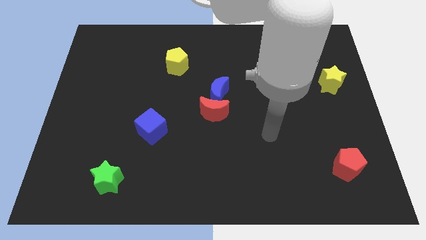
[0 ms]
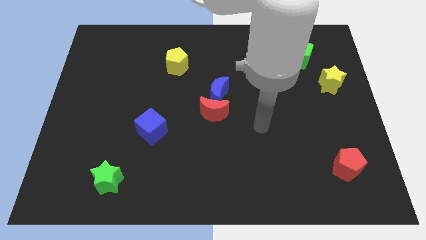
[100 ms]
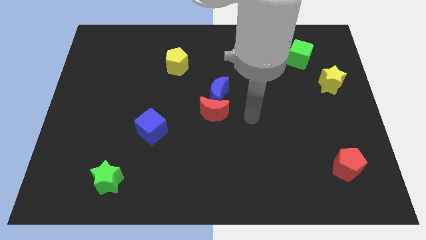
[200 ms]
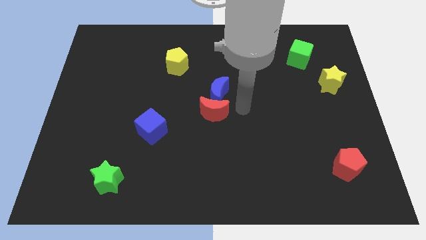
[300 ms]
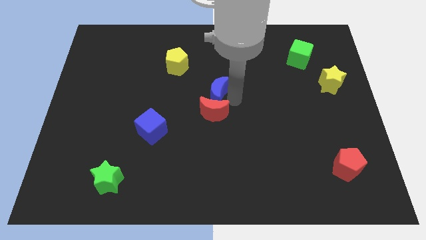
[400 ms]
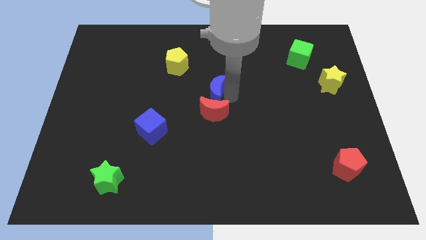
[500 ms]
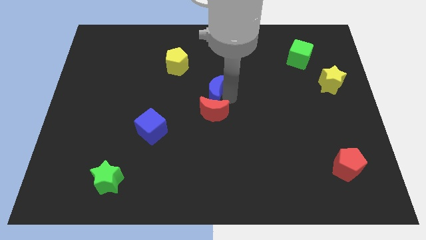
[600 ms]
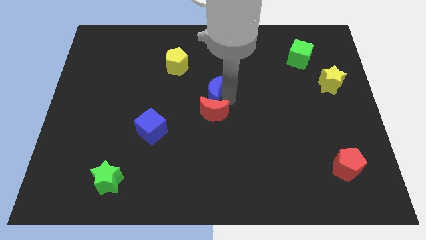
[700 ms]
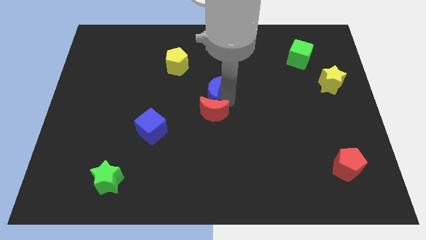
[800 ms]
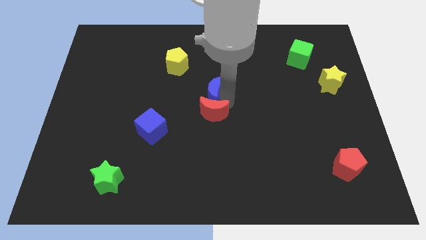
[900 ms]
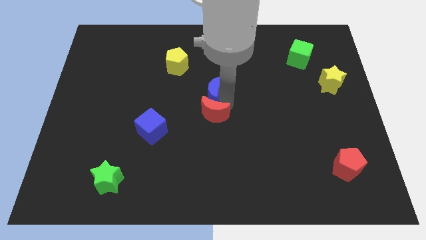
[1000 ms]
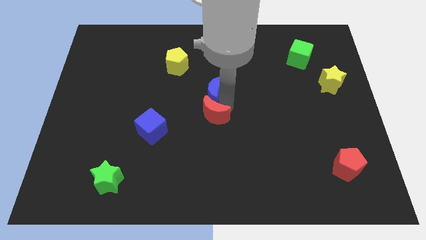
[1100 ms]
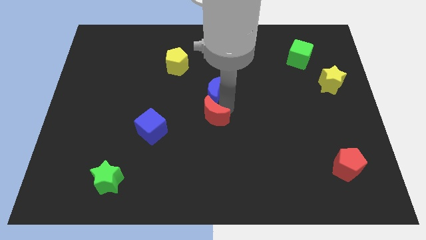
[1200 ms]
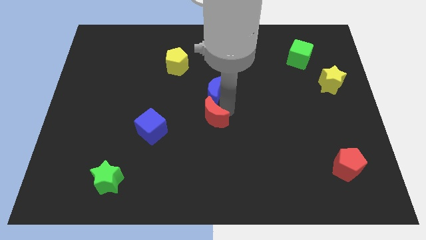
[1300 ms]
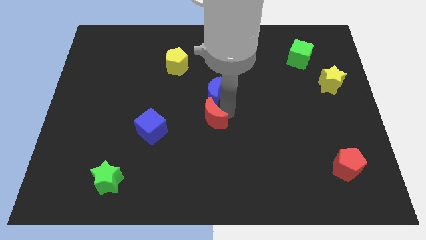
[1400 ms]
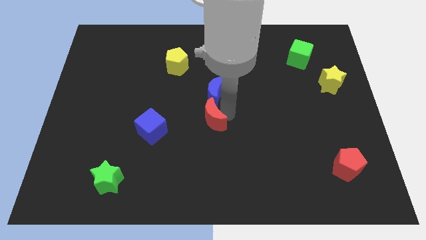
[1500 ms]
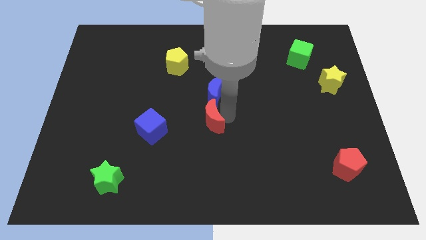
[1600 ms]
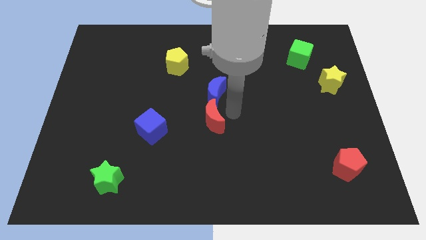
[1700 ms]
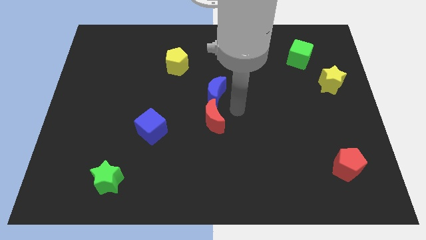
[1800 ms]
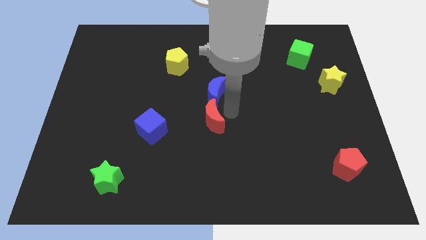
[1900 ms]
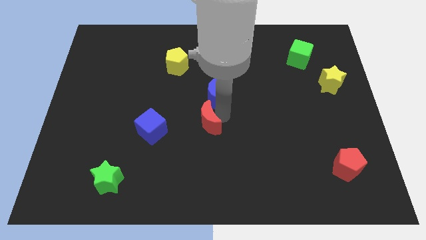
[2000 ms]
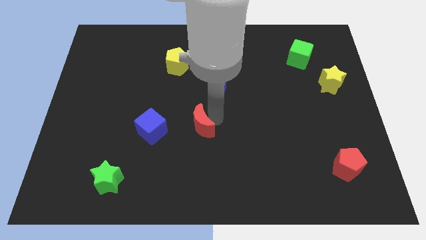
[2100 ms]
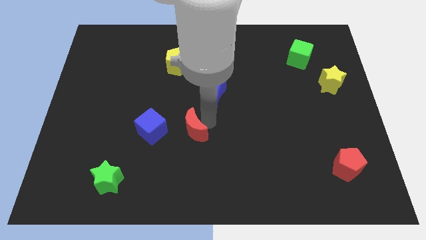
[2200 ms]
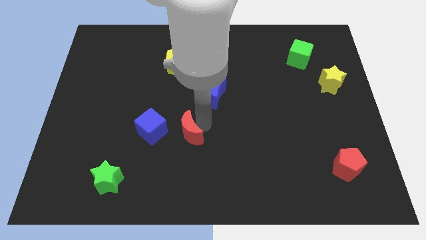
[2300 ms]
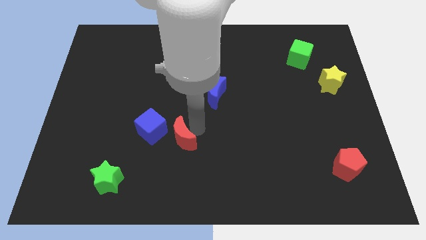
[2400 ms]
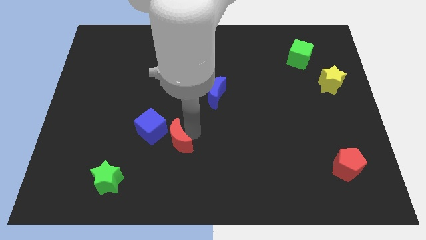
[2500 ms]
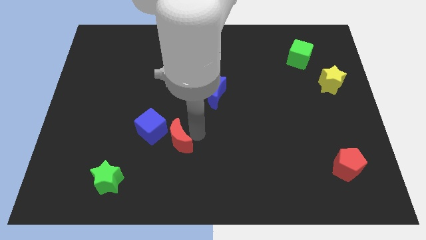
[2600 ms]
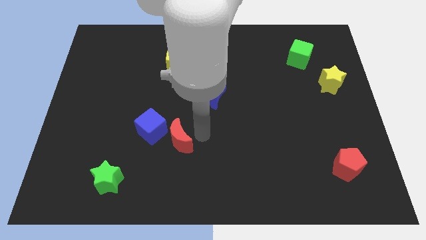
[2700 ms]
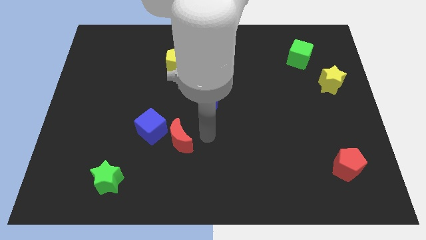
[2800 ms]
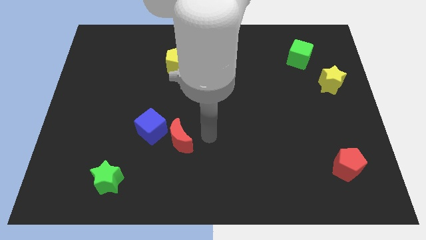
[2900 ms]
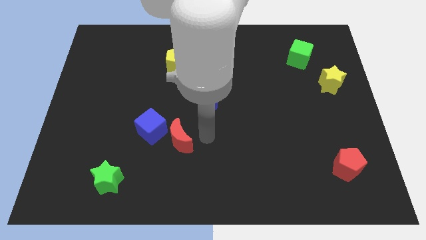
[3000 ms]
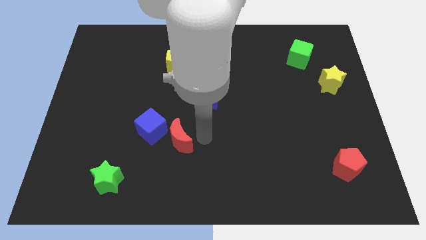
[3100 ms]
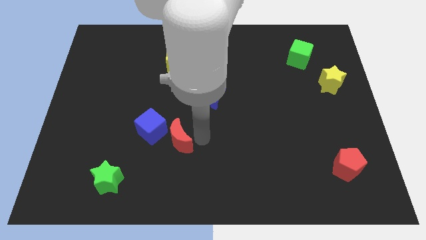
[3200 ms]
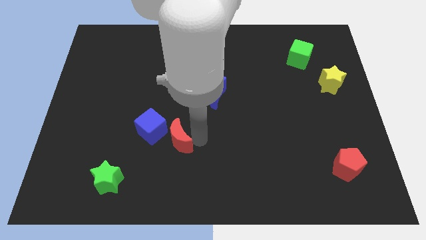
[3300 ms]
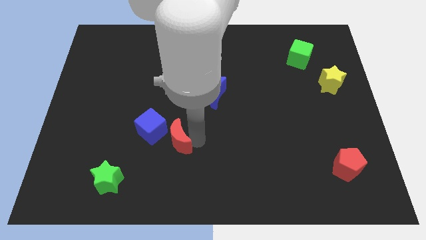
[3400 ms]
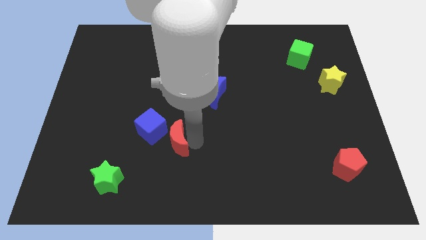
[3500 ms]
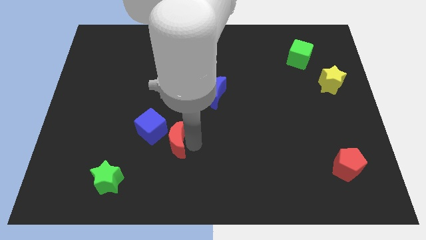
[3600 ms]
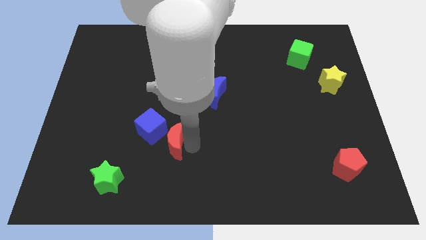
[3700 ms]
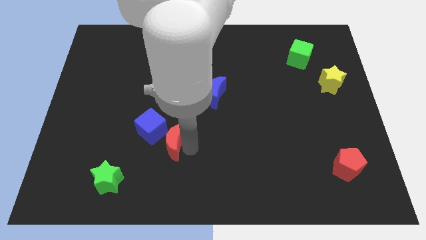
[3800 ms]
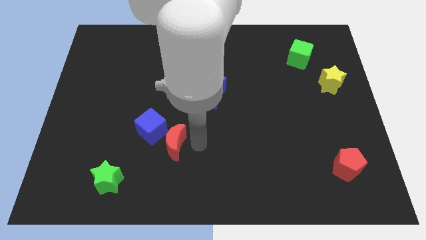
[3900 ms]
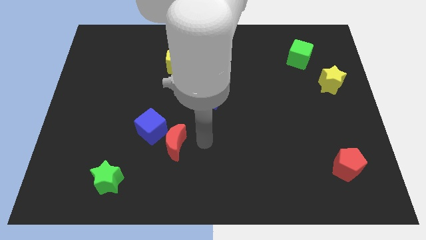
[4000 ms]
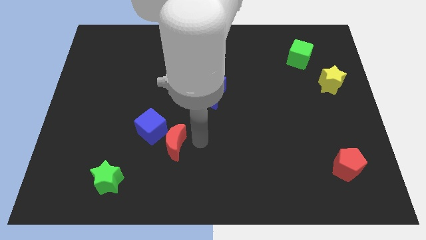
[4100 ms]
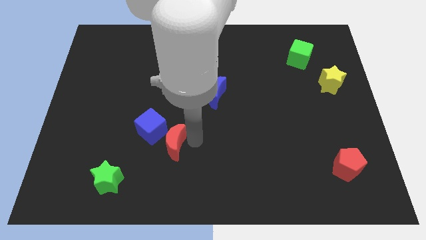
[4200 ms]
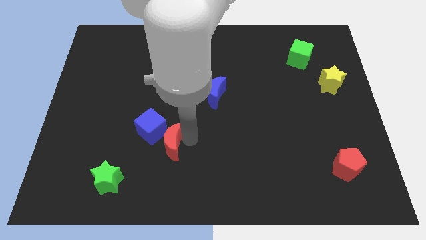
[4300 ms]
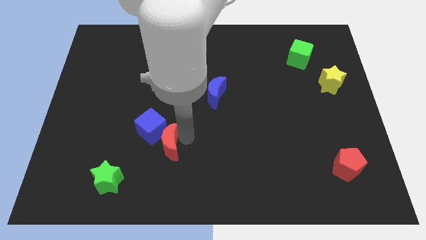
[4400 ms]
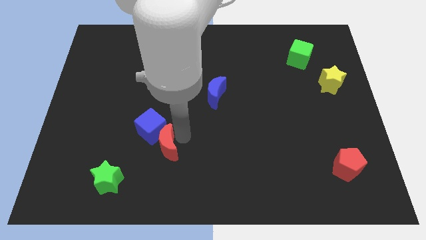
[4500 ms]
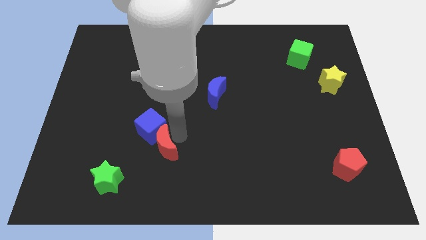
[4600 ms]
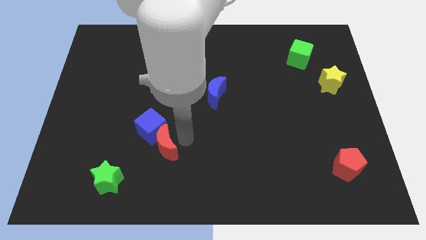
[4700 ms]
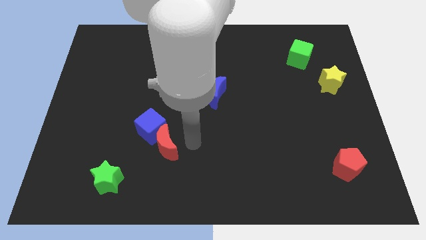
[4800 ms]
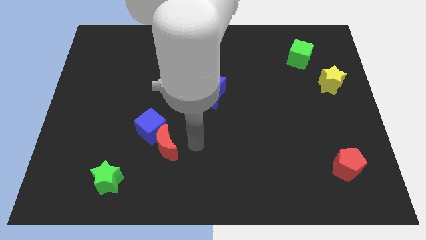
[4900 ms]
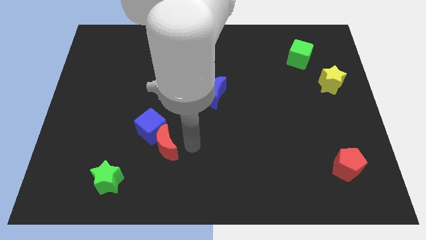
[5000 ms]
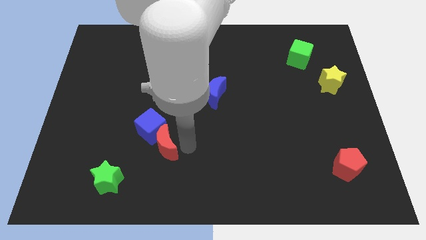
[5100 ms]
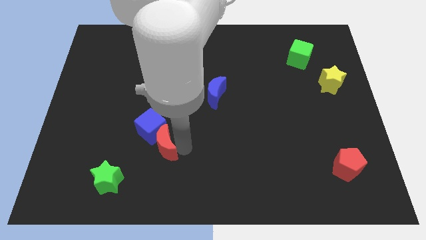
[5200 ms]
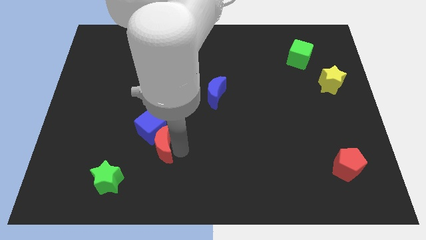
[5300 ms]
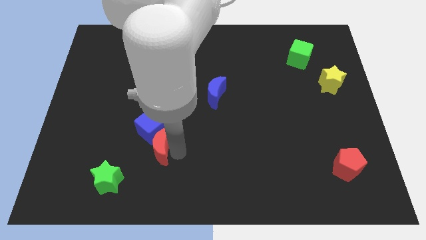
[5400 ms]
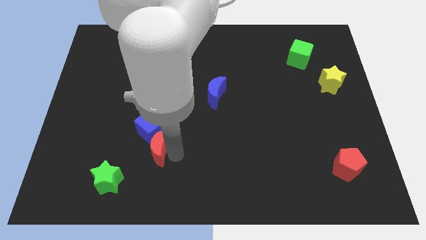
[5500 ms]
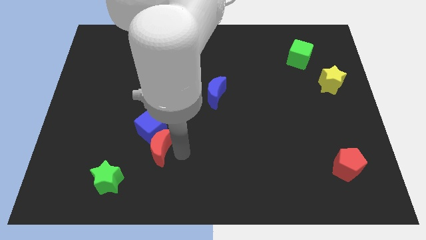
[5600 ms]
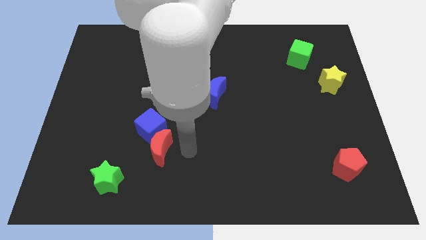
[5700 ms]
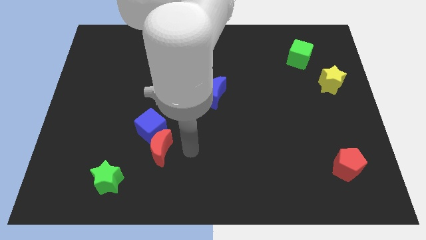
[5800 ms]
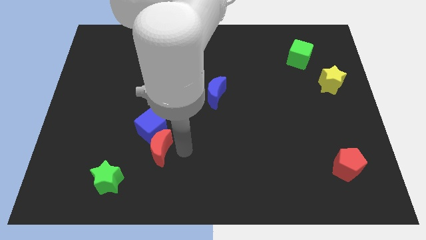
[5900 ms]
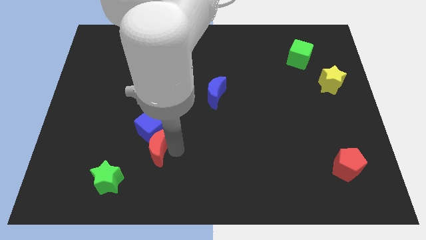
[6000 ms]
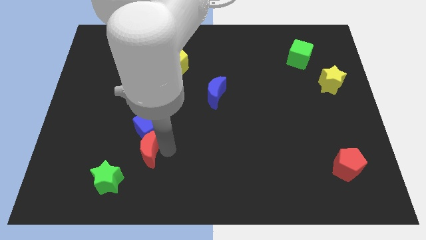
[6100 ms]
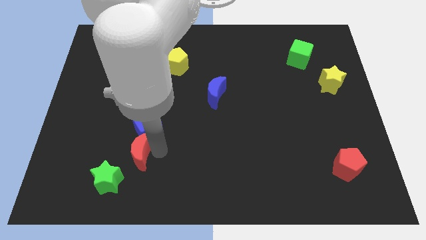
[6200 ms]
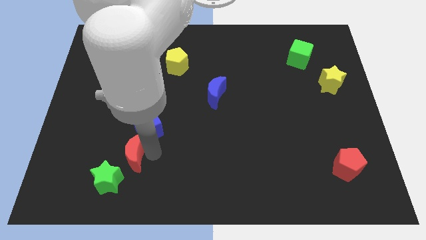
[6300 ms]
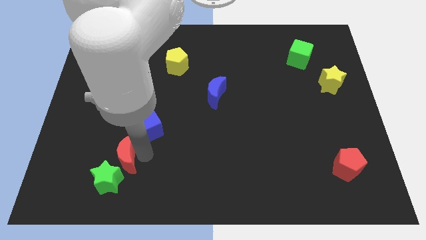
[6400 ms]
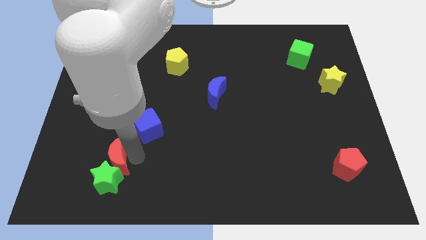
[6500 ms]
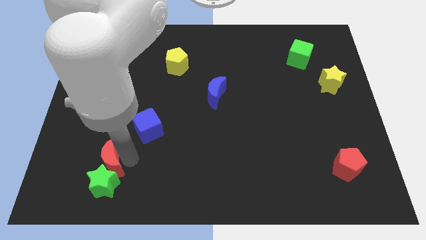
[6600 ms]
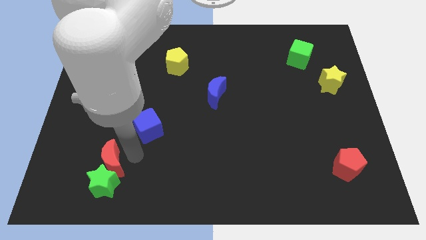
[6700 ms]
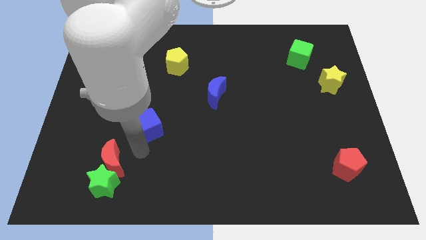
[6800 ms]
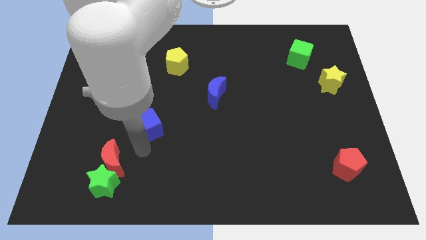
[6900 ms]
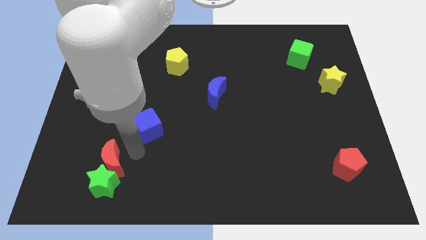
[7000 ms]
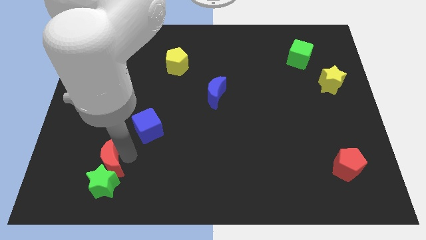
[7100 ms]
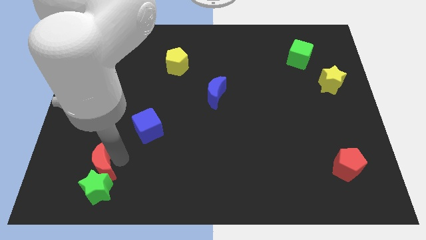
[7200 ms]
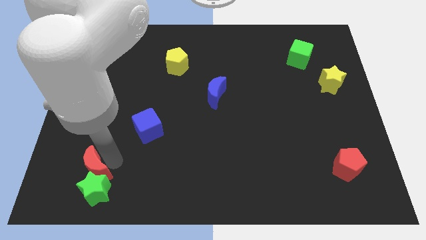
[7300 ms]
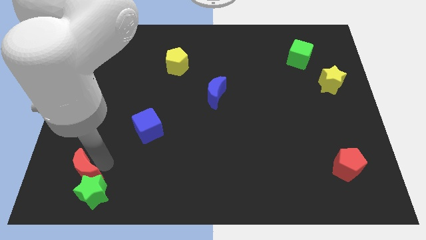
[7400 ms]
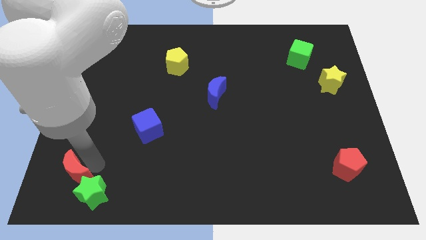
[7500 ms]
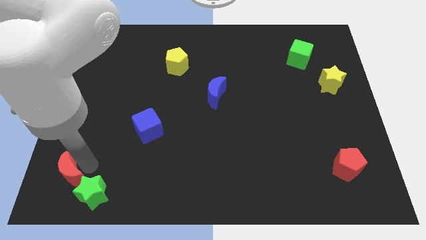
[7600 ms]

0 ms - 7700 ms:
slide the red moon to the bottom left corner
